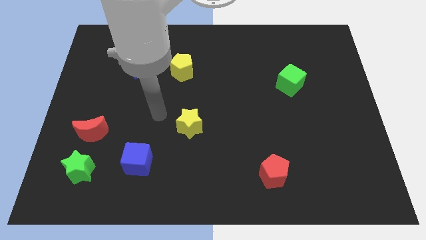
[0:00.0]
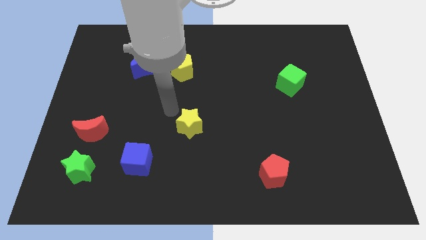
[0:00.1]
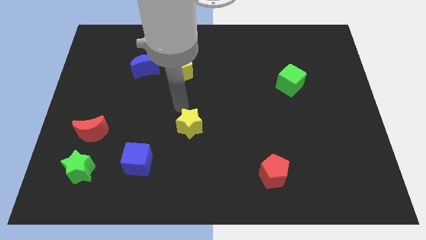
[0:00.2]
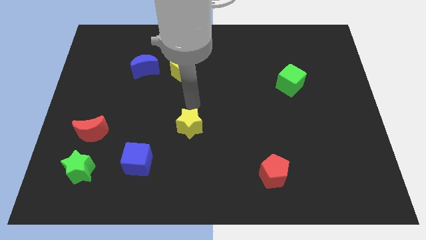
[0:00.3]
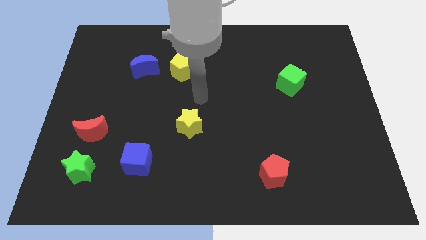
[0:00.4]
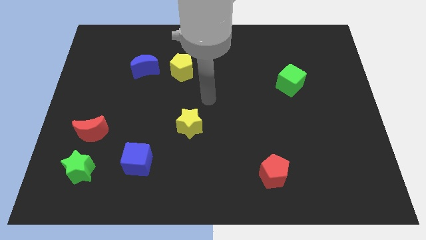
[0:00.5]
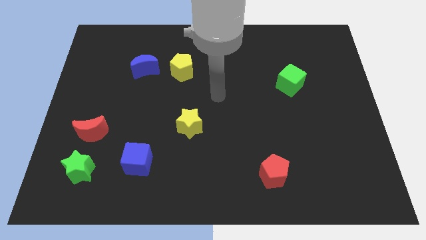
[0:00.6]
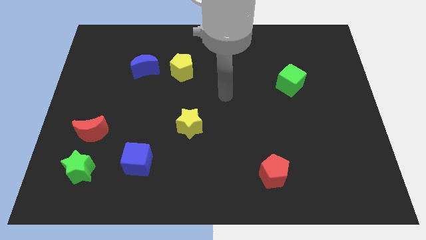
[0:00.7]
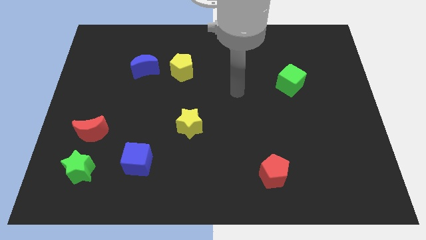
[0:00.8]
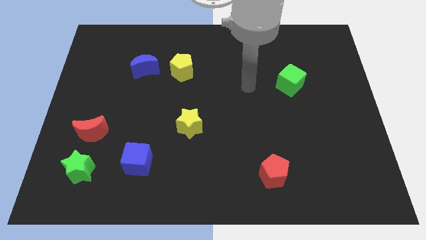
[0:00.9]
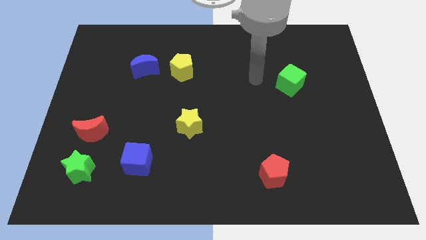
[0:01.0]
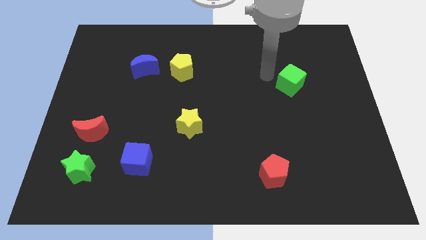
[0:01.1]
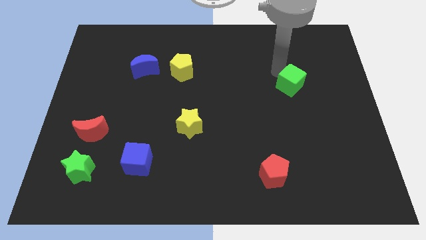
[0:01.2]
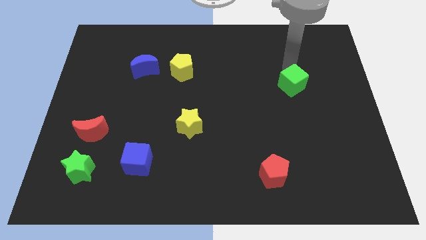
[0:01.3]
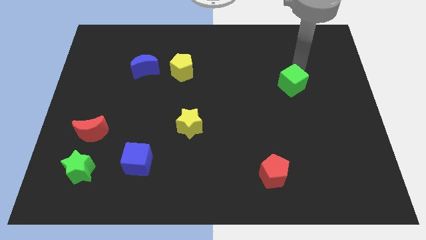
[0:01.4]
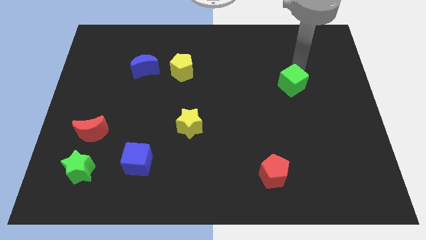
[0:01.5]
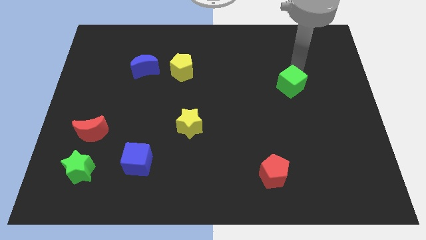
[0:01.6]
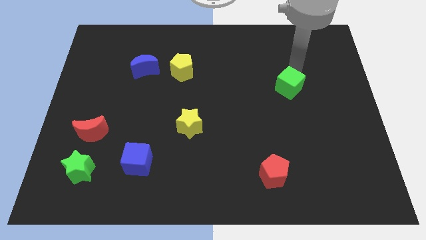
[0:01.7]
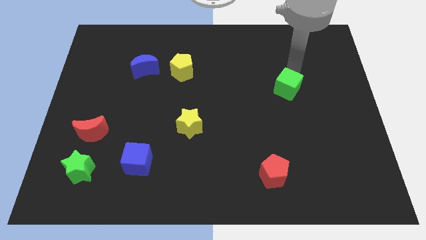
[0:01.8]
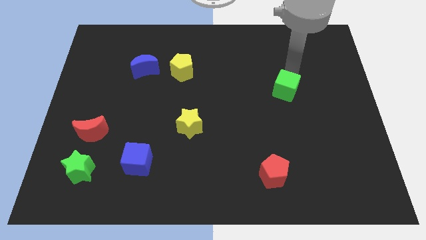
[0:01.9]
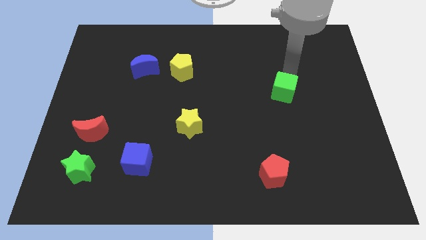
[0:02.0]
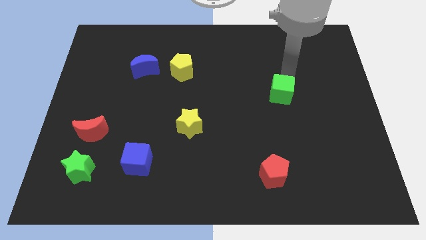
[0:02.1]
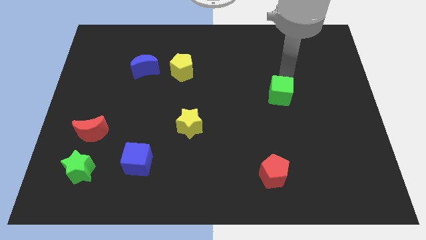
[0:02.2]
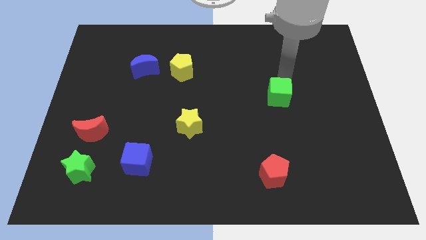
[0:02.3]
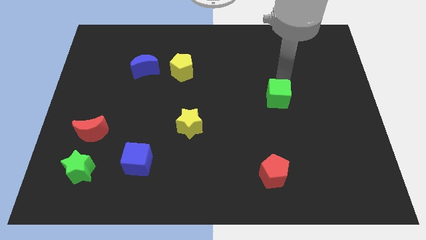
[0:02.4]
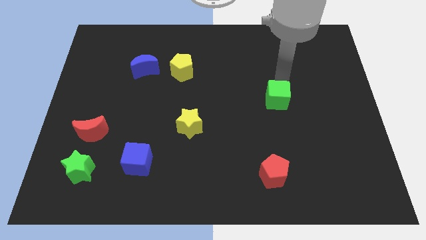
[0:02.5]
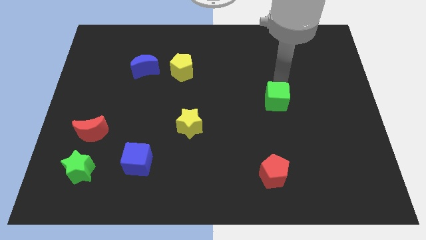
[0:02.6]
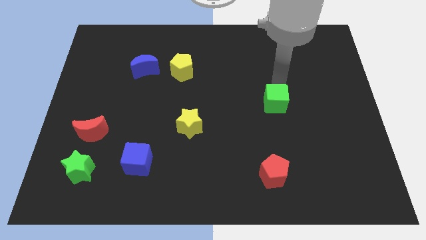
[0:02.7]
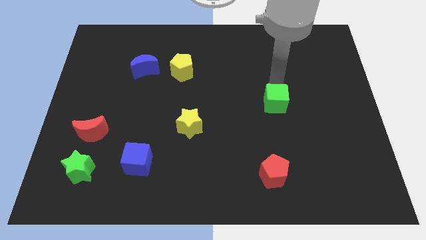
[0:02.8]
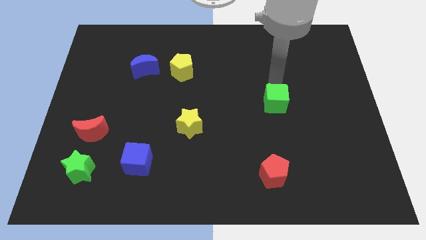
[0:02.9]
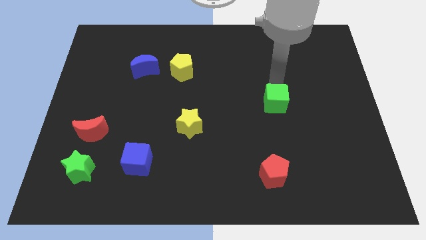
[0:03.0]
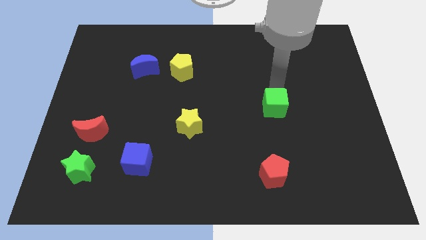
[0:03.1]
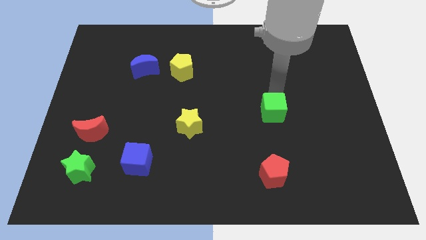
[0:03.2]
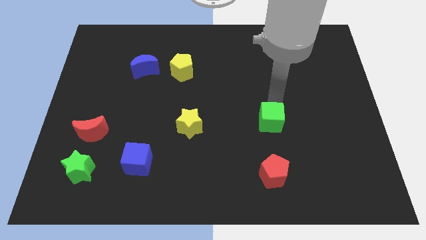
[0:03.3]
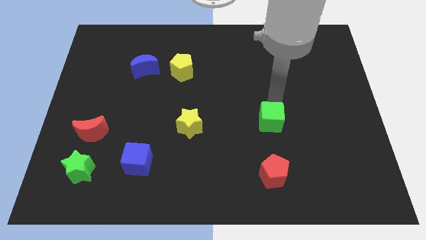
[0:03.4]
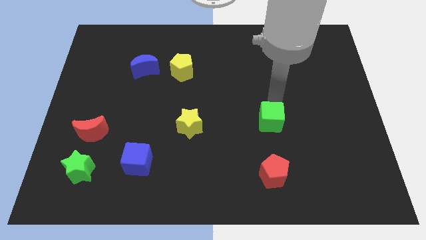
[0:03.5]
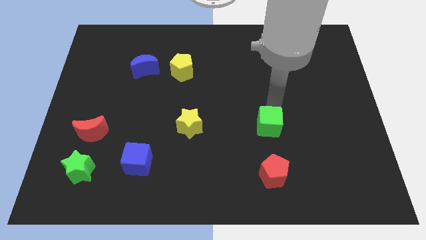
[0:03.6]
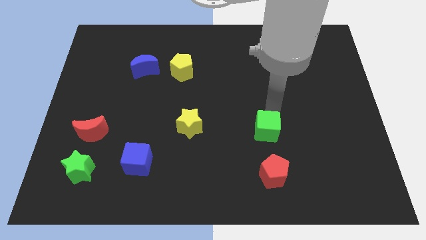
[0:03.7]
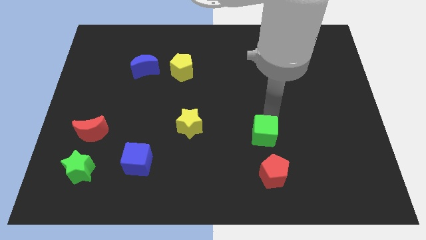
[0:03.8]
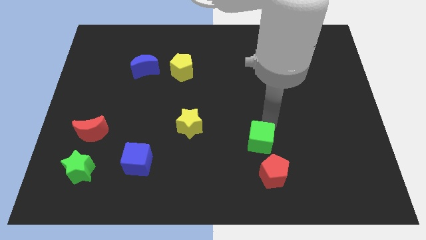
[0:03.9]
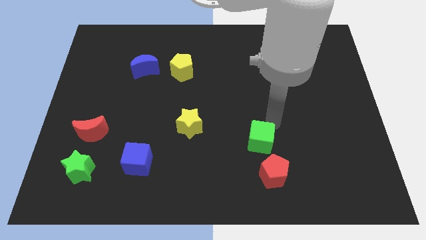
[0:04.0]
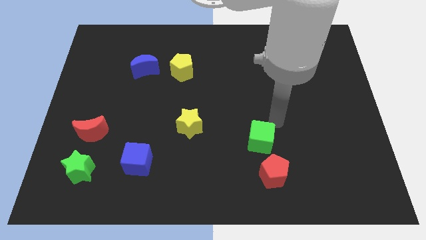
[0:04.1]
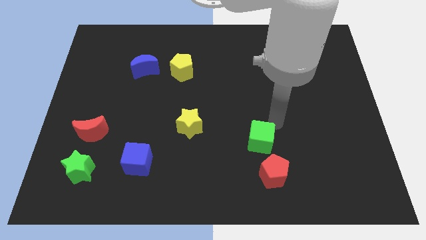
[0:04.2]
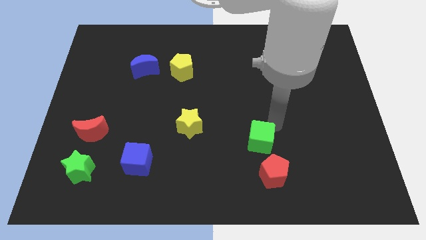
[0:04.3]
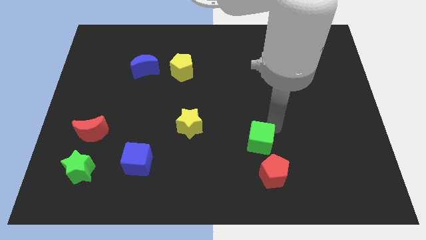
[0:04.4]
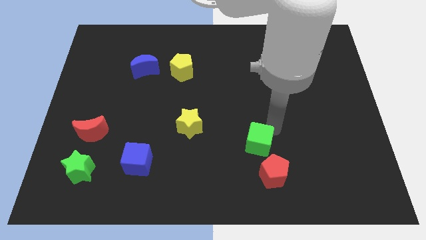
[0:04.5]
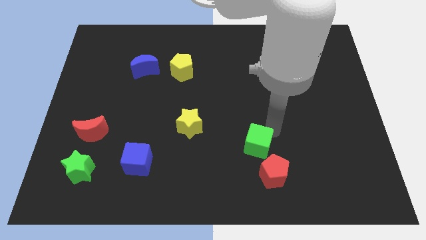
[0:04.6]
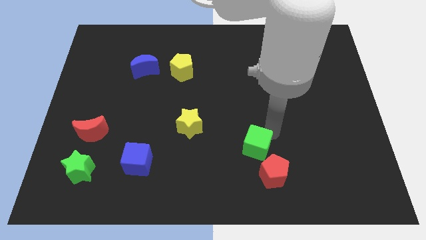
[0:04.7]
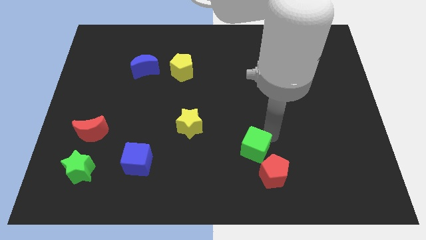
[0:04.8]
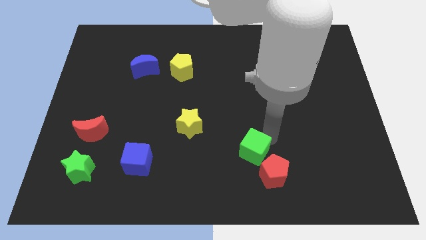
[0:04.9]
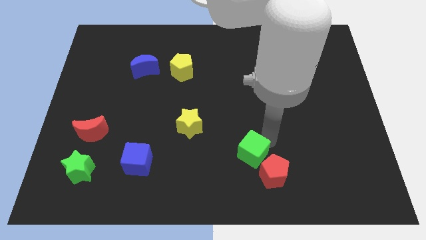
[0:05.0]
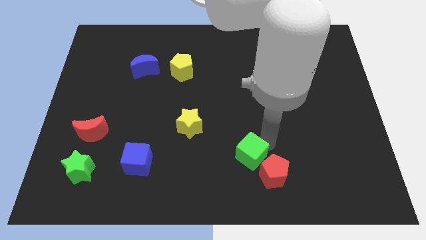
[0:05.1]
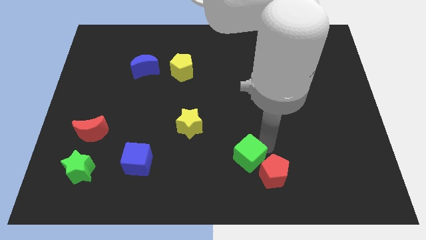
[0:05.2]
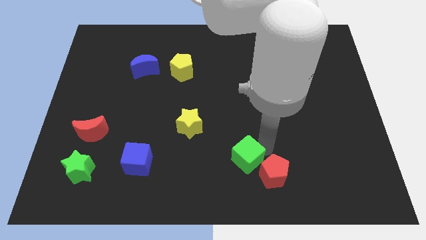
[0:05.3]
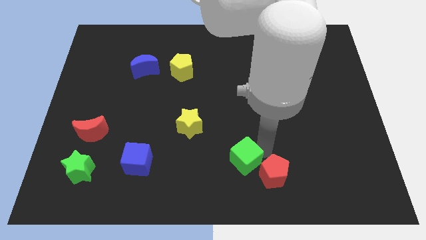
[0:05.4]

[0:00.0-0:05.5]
move the green cube to the bottom side
